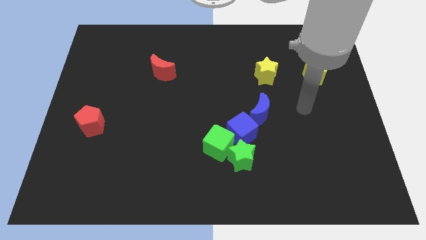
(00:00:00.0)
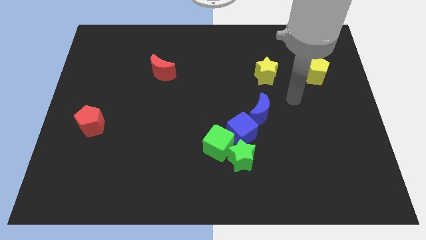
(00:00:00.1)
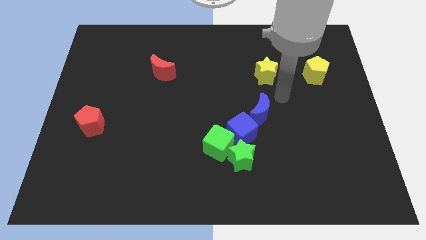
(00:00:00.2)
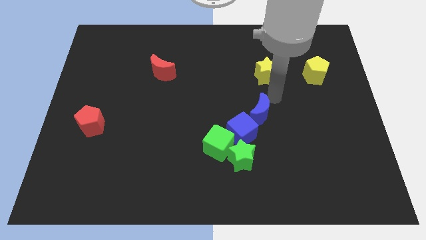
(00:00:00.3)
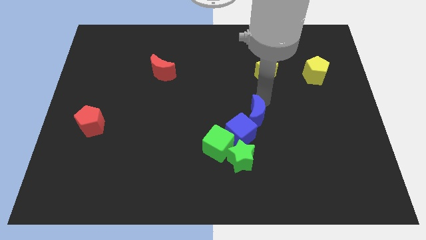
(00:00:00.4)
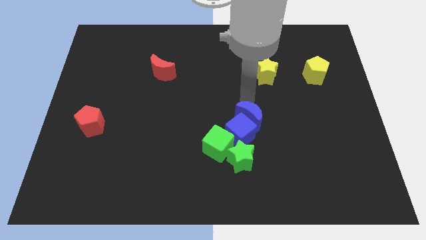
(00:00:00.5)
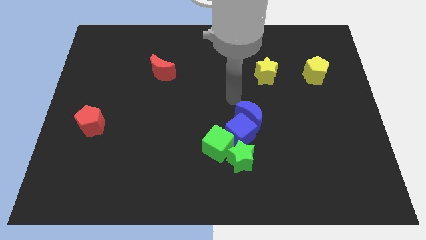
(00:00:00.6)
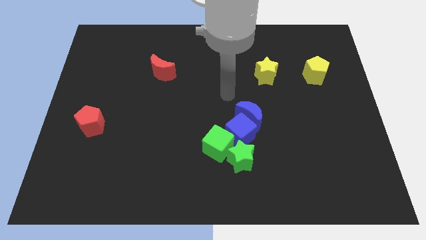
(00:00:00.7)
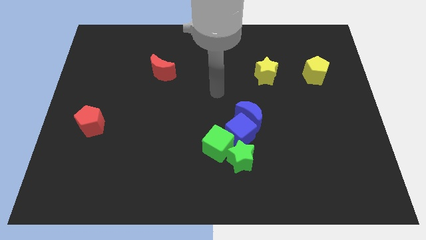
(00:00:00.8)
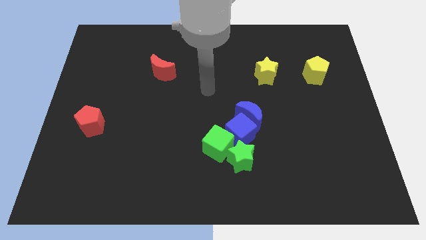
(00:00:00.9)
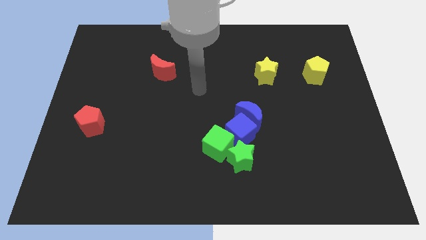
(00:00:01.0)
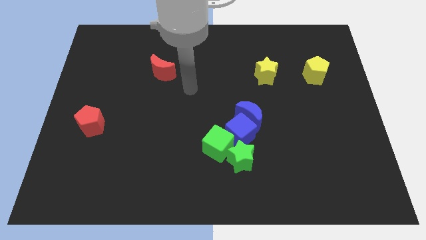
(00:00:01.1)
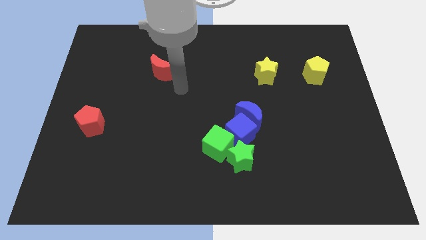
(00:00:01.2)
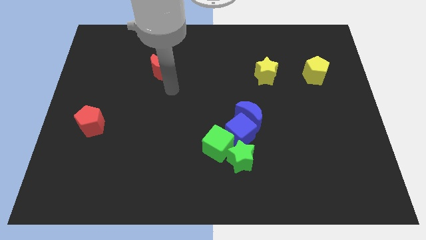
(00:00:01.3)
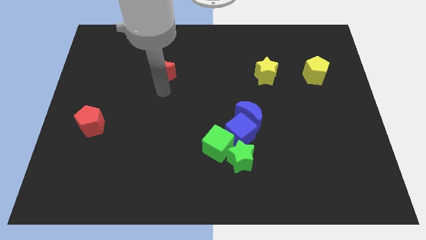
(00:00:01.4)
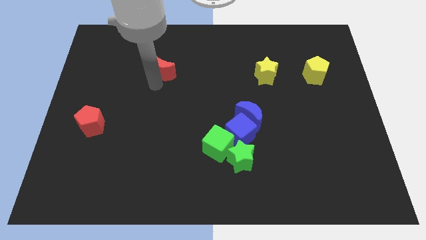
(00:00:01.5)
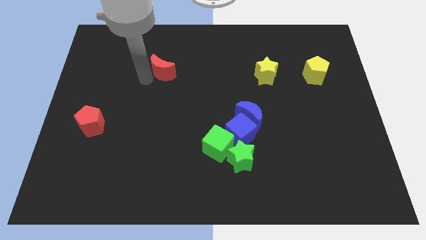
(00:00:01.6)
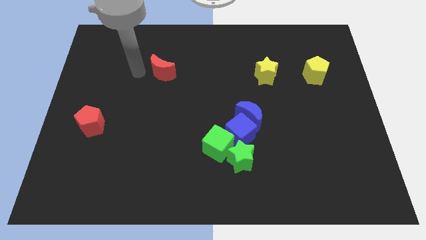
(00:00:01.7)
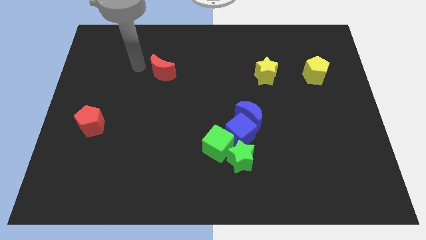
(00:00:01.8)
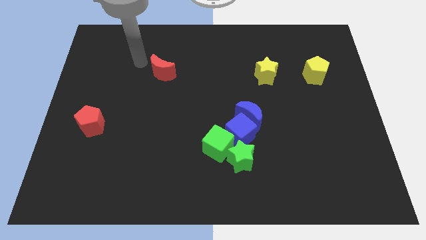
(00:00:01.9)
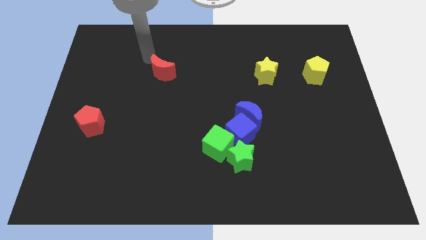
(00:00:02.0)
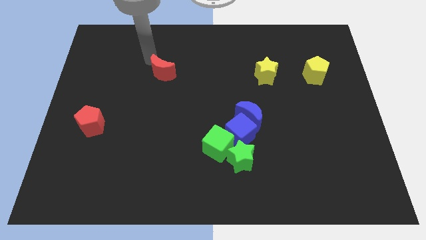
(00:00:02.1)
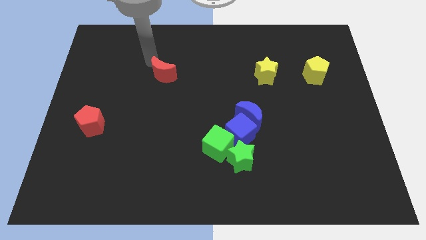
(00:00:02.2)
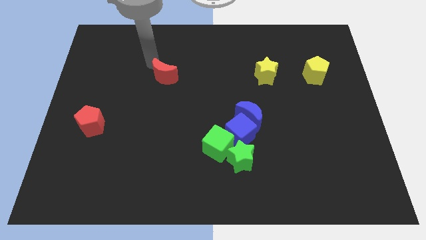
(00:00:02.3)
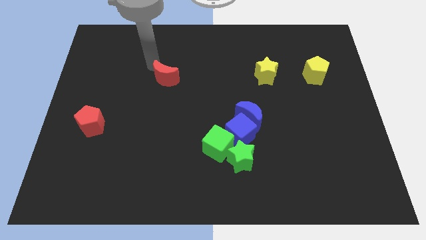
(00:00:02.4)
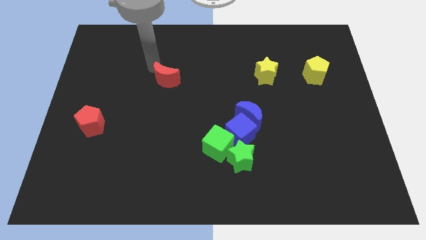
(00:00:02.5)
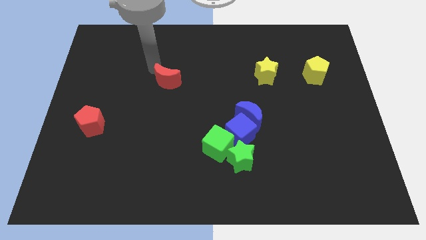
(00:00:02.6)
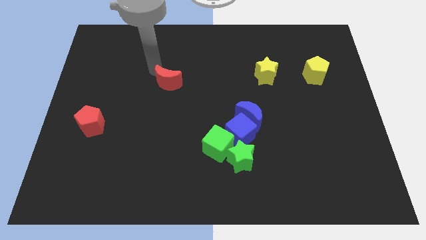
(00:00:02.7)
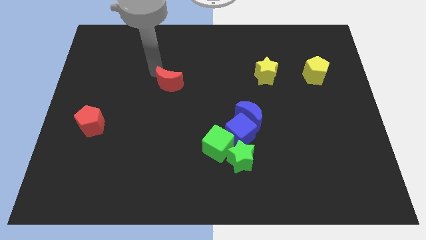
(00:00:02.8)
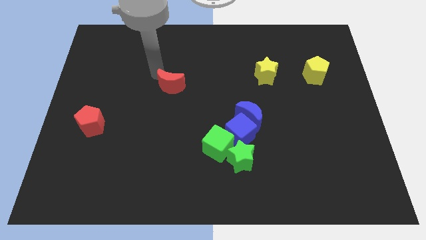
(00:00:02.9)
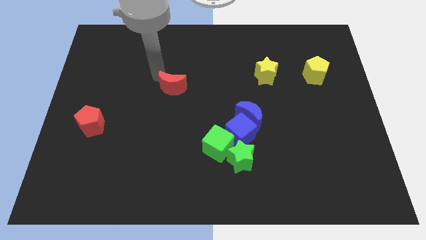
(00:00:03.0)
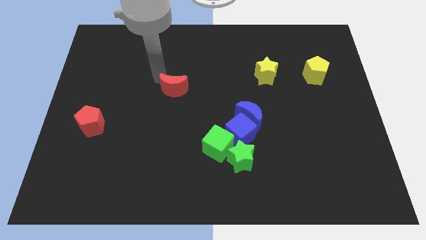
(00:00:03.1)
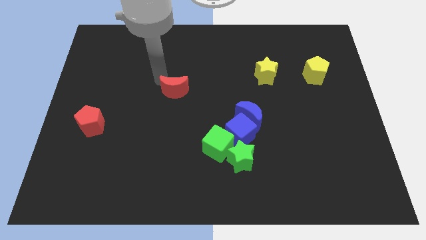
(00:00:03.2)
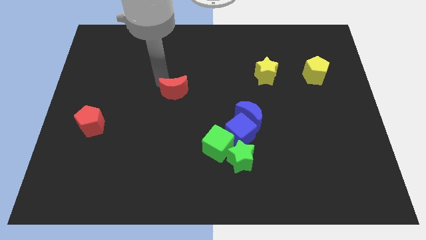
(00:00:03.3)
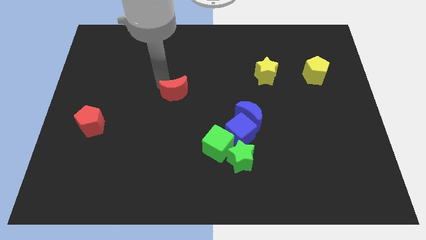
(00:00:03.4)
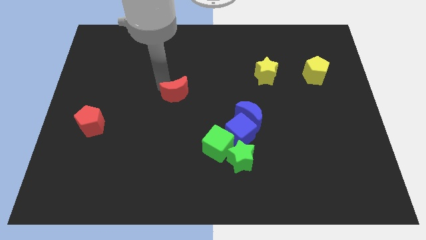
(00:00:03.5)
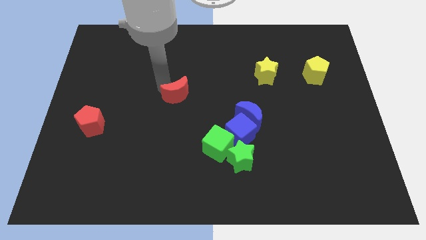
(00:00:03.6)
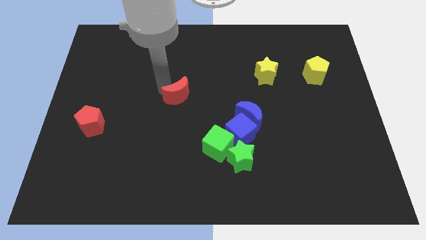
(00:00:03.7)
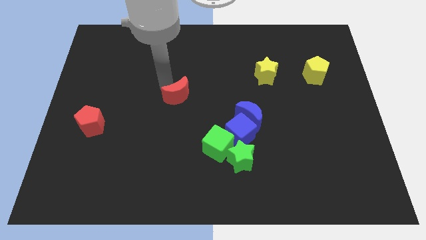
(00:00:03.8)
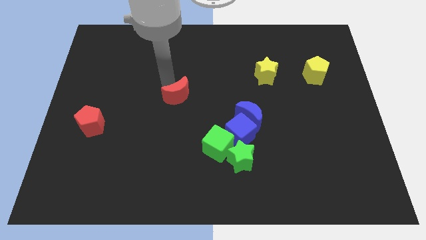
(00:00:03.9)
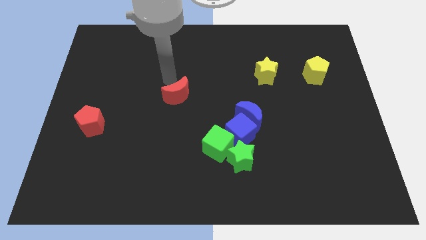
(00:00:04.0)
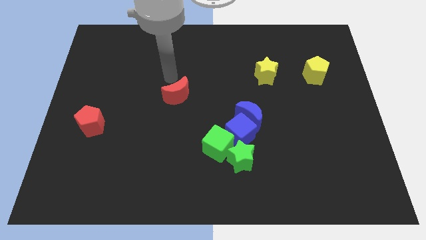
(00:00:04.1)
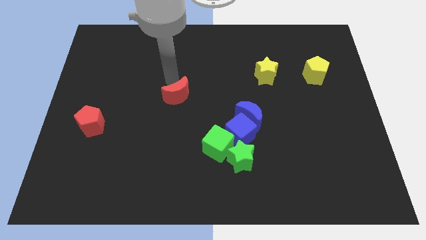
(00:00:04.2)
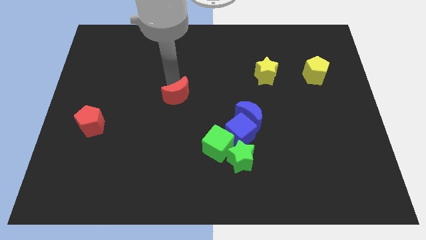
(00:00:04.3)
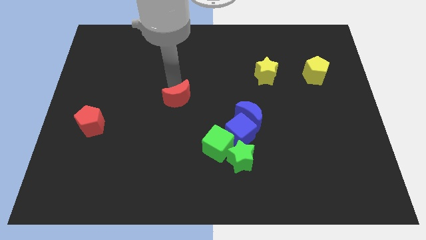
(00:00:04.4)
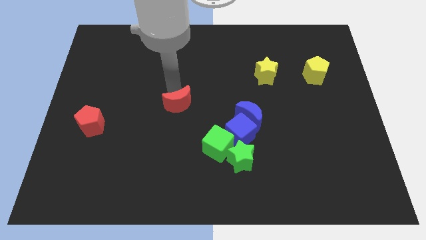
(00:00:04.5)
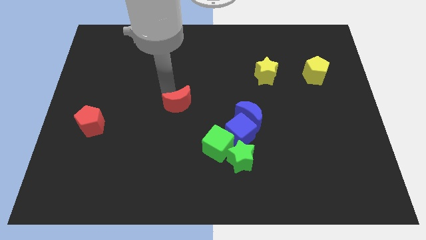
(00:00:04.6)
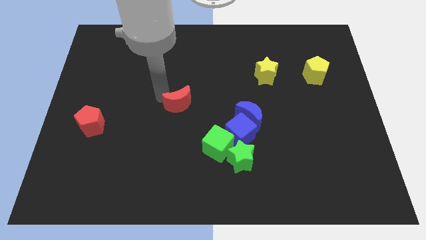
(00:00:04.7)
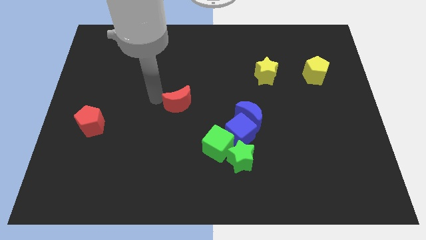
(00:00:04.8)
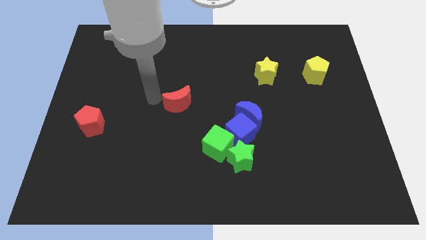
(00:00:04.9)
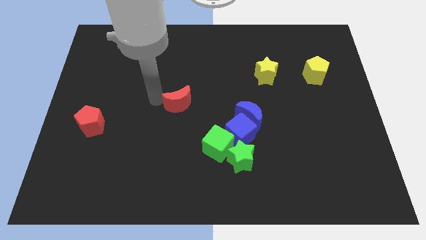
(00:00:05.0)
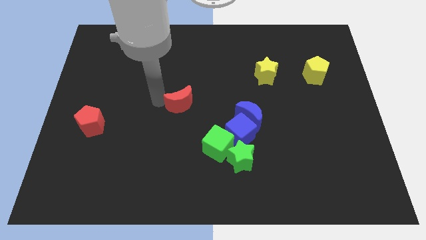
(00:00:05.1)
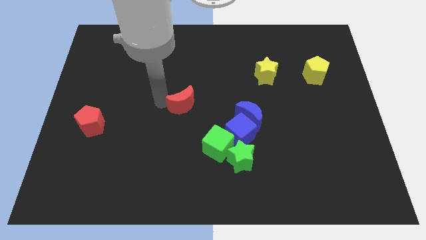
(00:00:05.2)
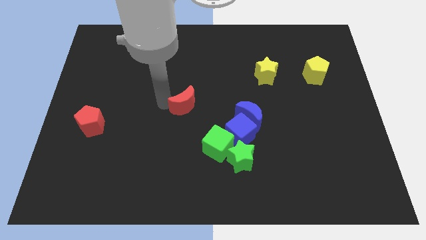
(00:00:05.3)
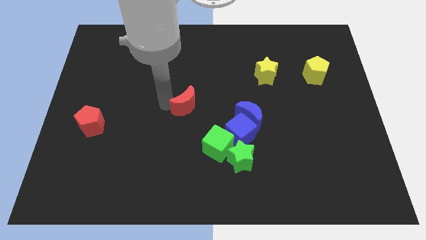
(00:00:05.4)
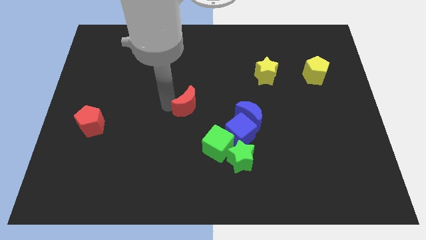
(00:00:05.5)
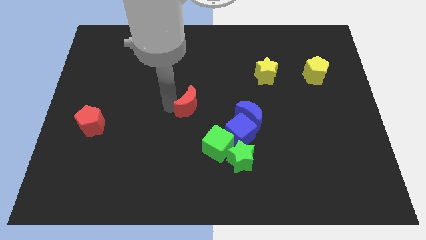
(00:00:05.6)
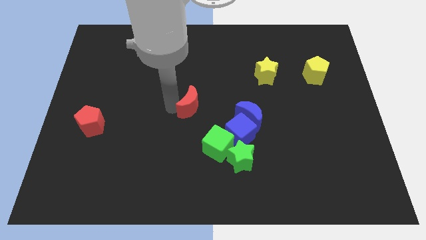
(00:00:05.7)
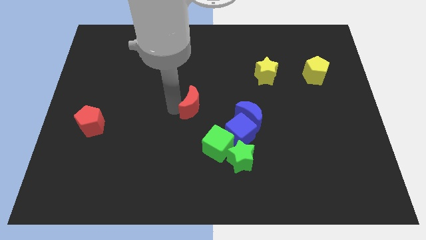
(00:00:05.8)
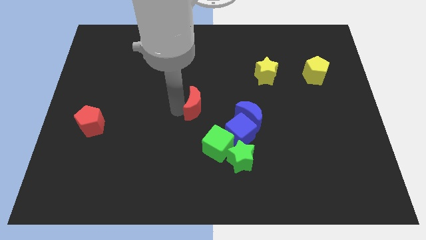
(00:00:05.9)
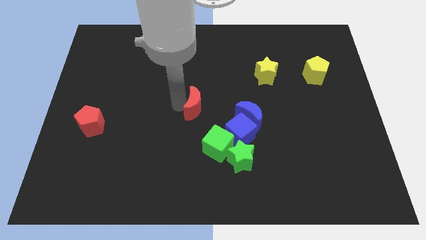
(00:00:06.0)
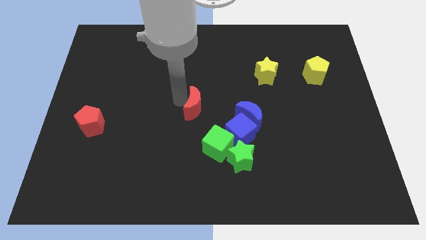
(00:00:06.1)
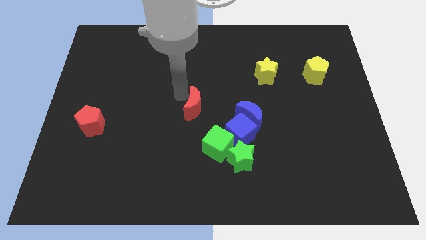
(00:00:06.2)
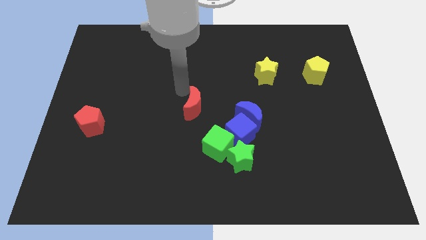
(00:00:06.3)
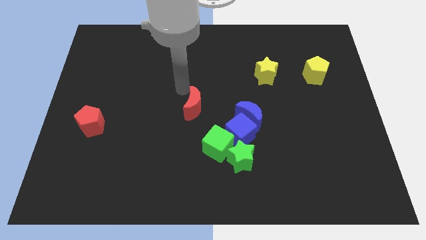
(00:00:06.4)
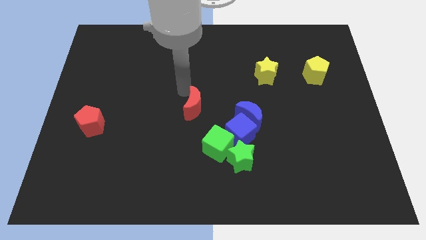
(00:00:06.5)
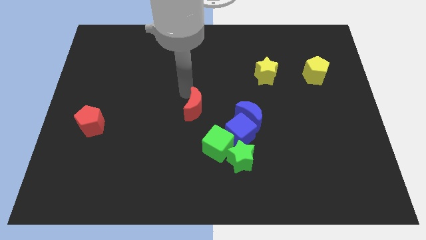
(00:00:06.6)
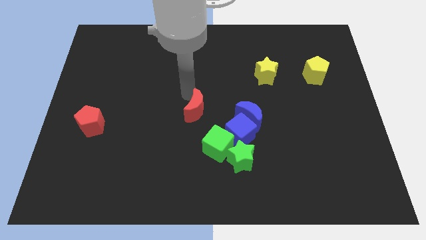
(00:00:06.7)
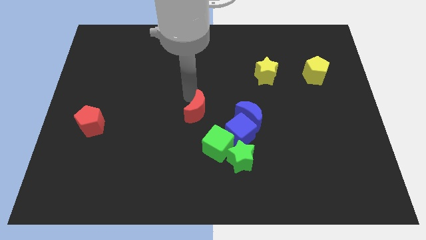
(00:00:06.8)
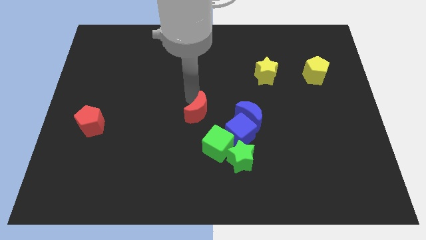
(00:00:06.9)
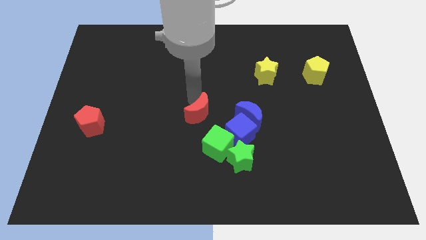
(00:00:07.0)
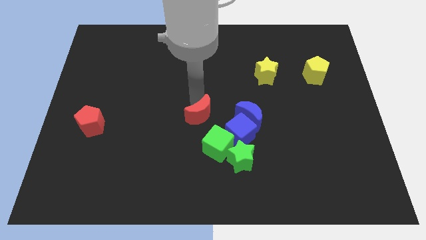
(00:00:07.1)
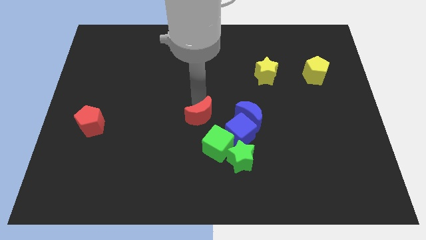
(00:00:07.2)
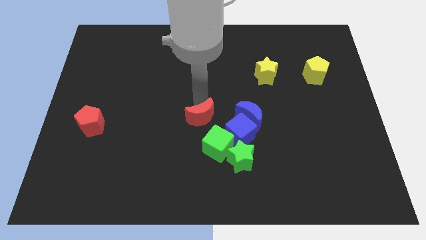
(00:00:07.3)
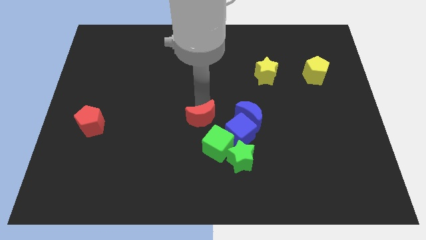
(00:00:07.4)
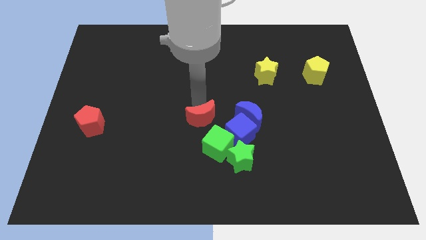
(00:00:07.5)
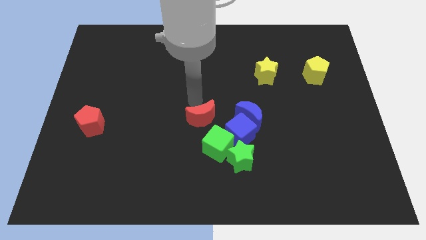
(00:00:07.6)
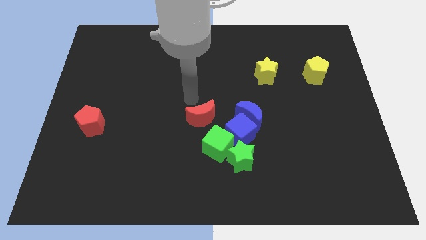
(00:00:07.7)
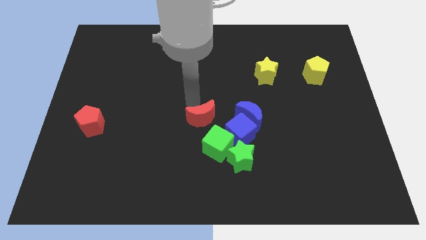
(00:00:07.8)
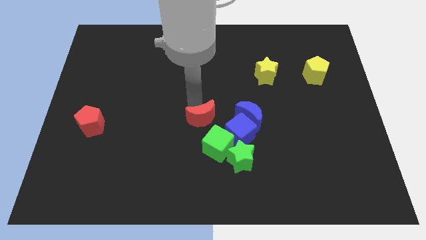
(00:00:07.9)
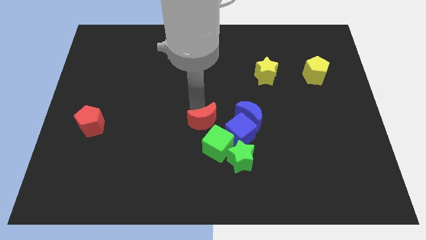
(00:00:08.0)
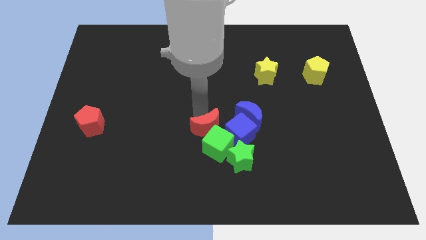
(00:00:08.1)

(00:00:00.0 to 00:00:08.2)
slide the red moon to the green cube
